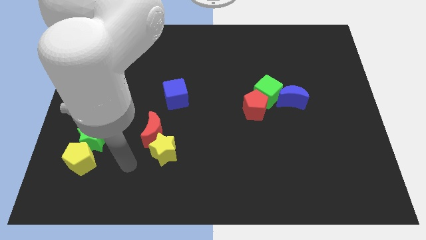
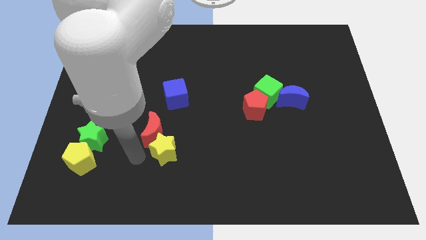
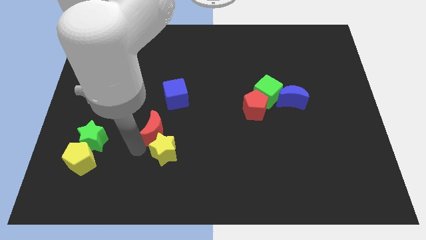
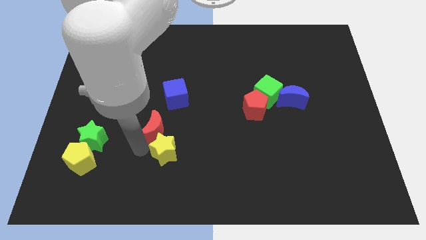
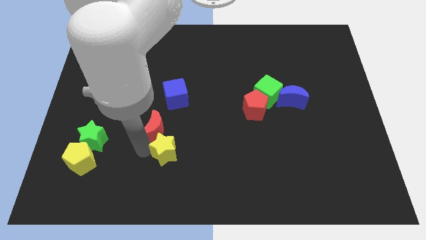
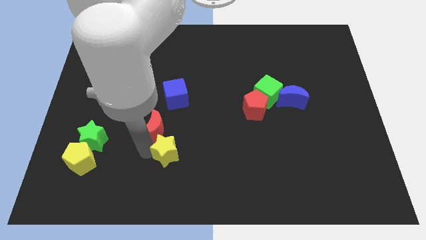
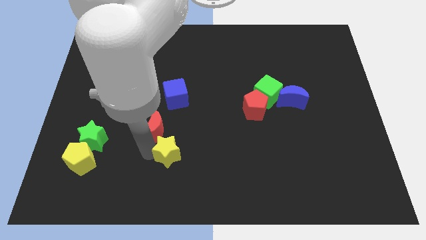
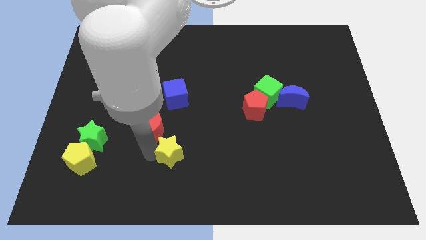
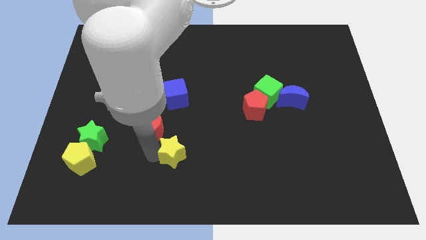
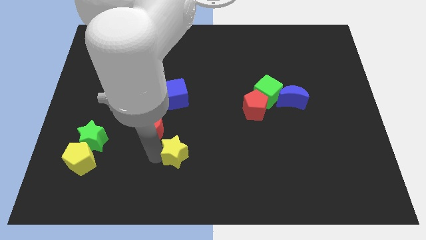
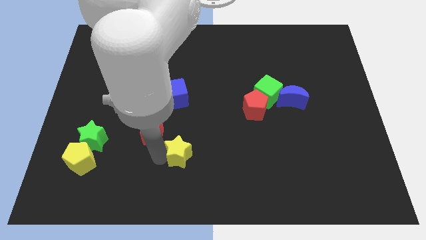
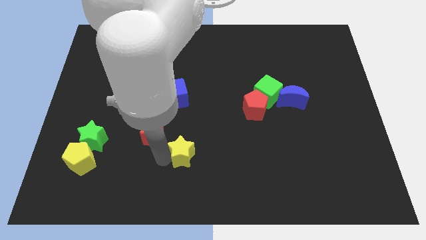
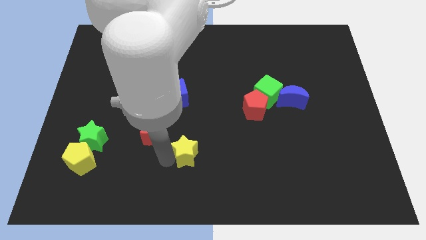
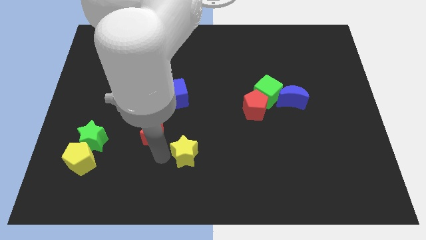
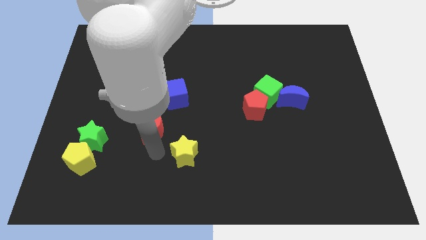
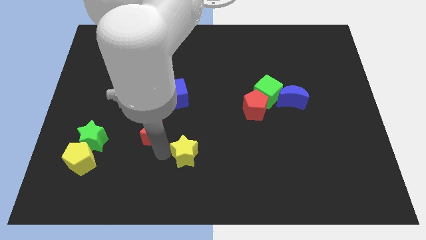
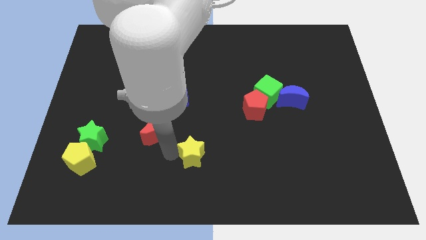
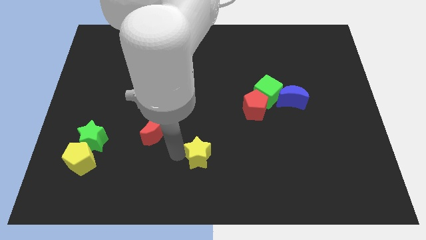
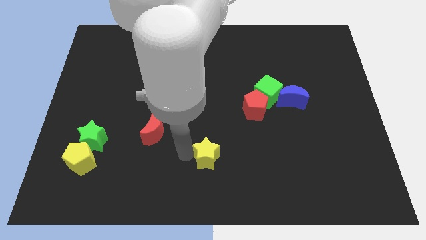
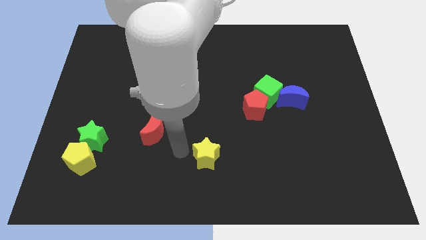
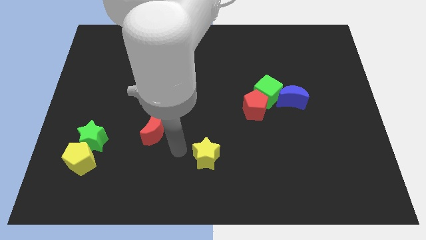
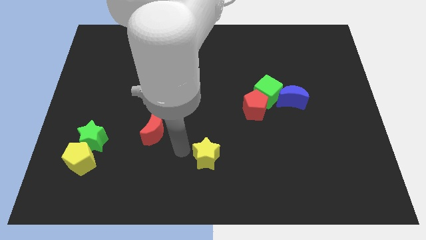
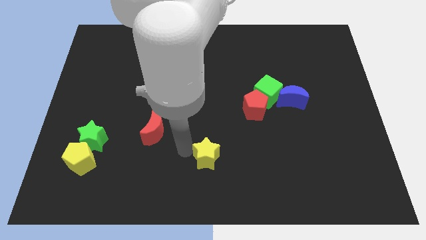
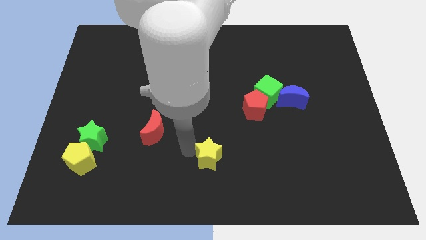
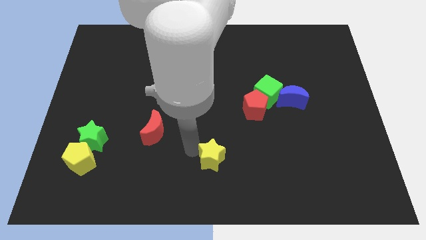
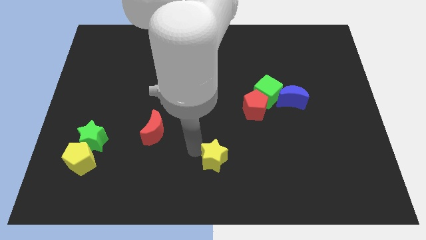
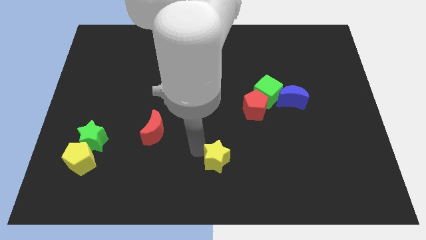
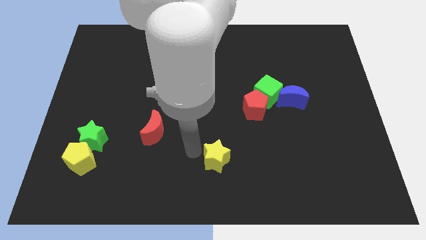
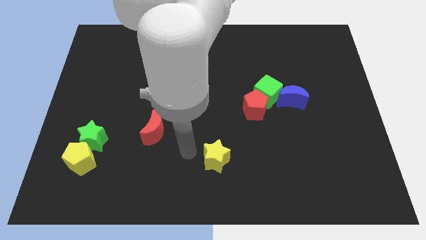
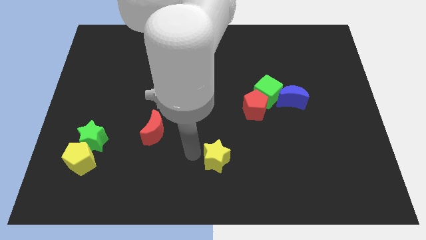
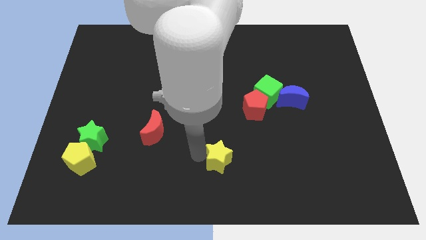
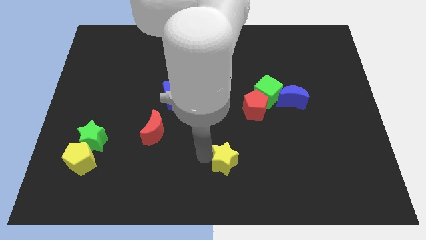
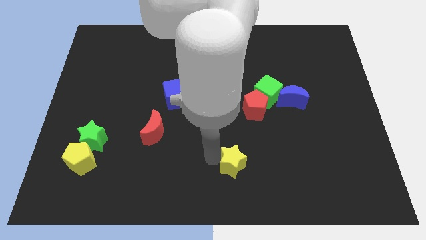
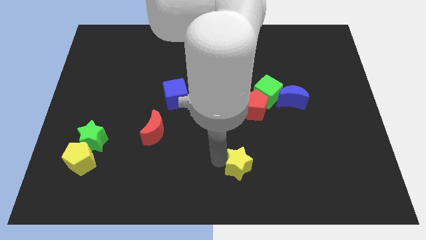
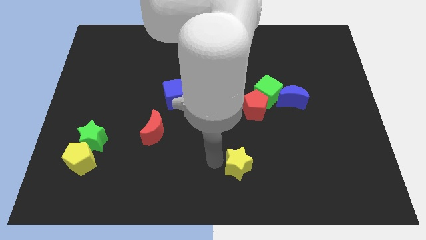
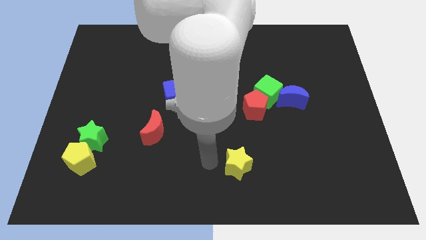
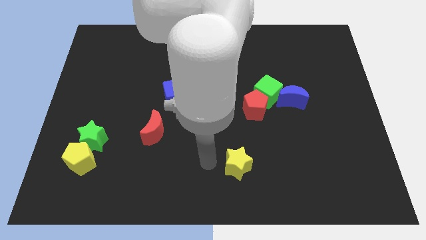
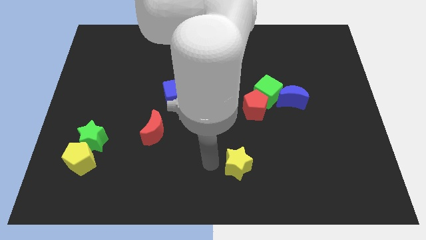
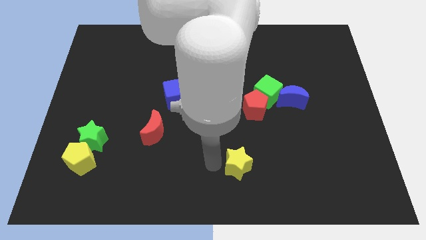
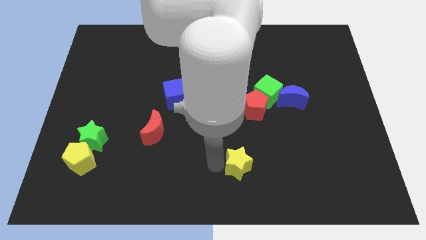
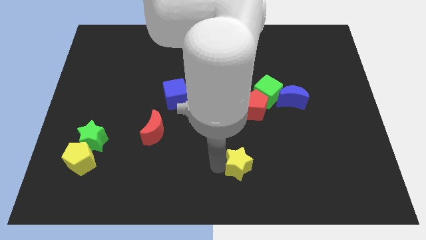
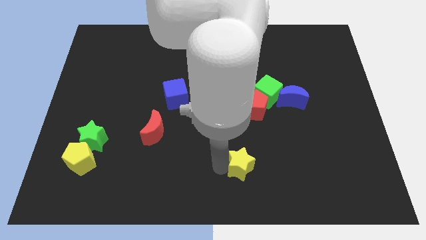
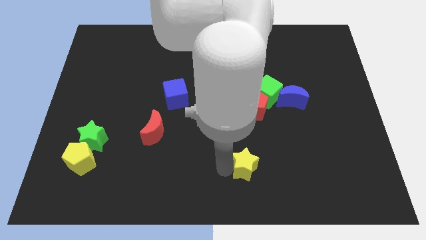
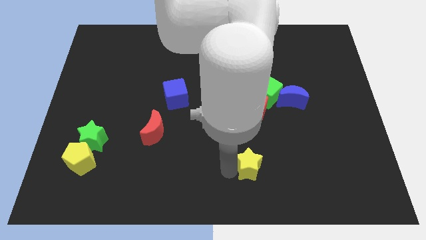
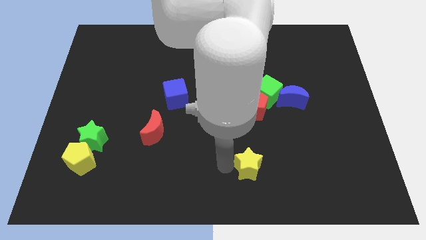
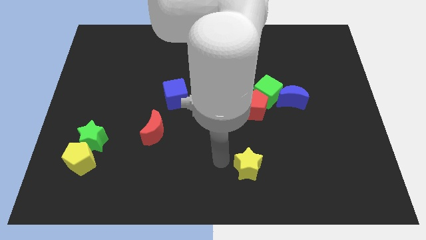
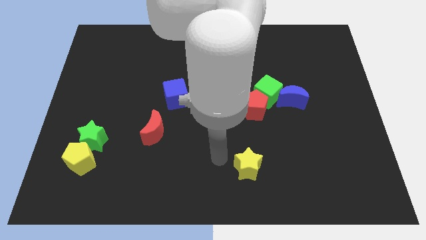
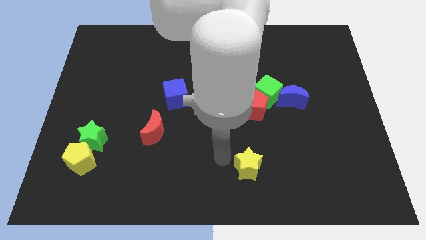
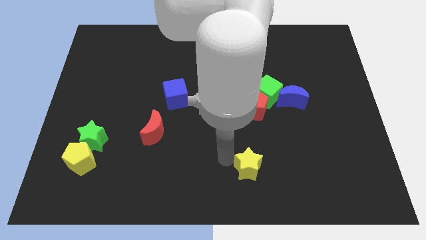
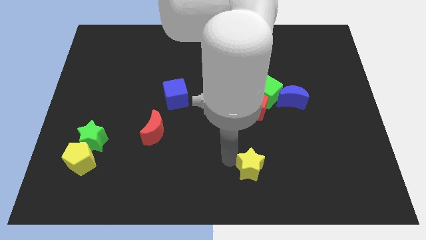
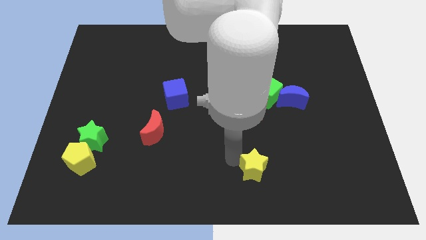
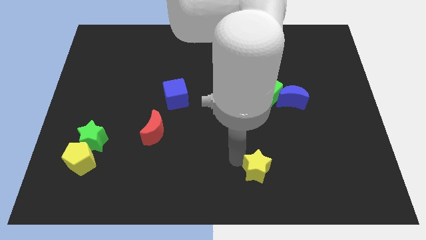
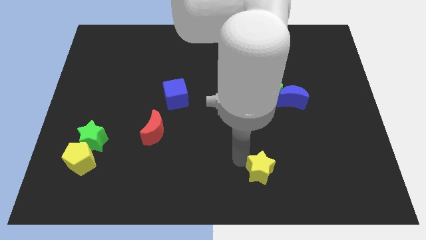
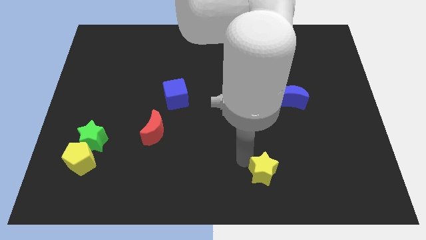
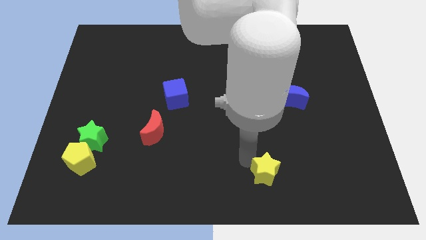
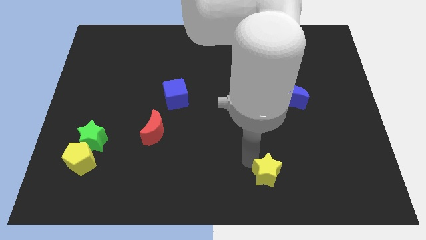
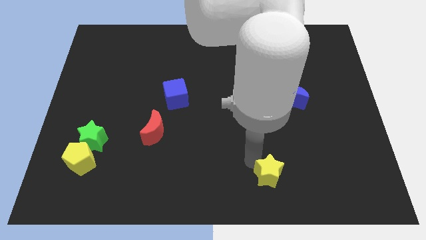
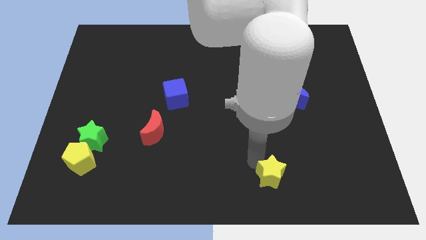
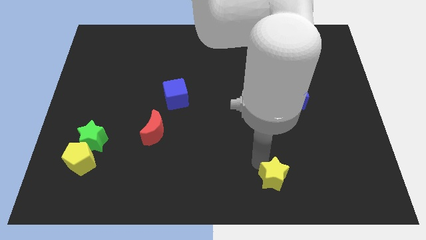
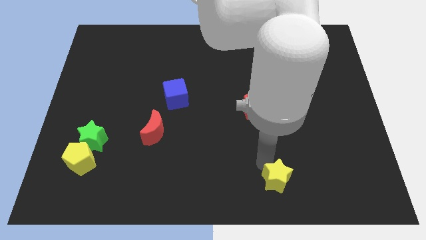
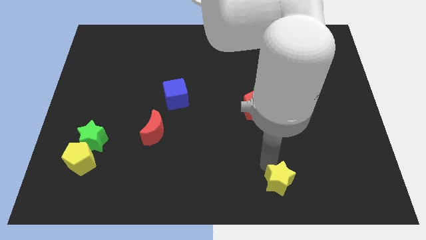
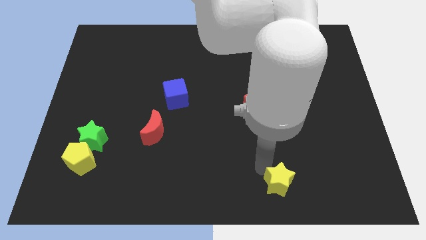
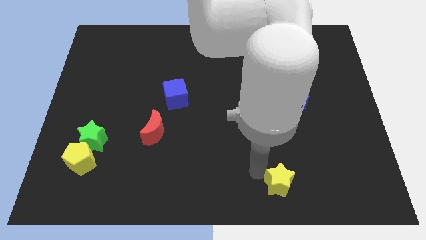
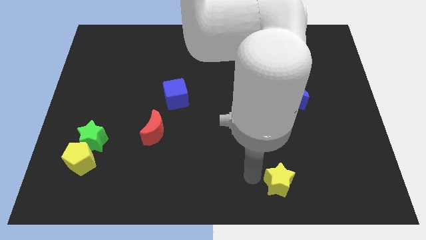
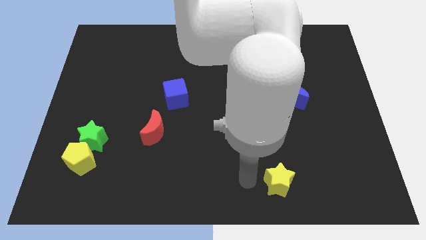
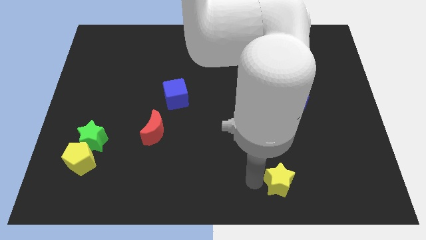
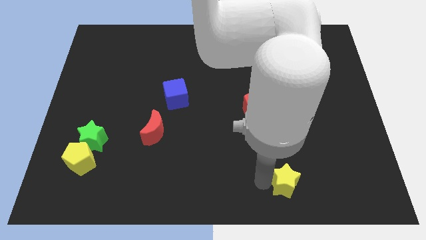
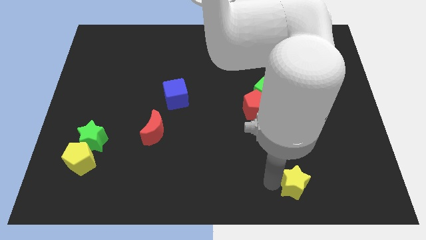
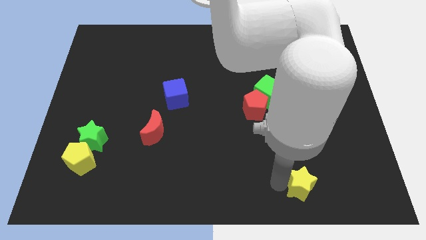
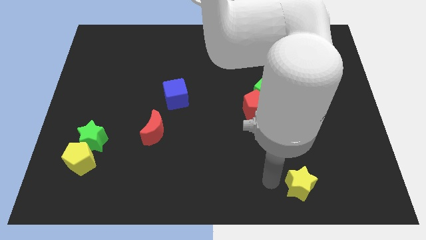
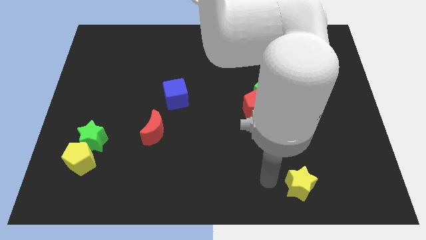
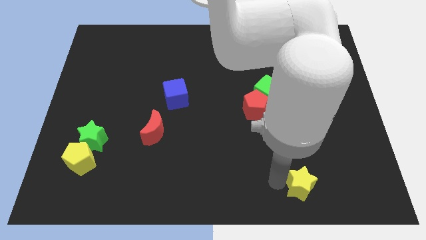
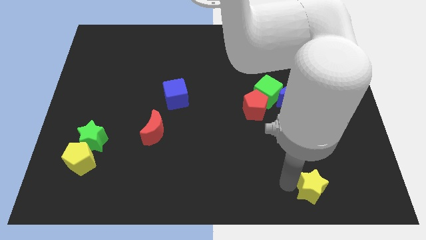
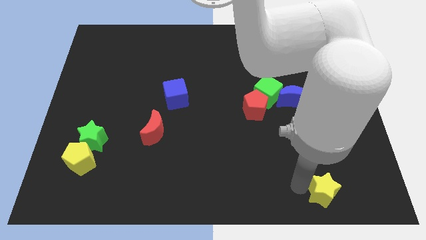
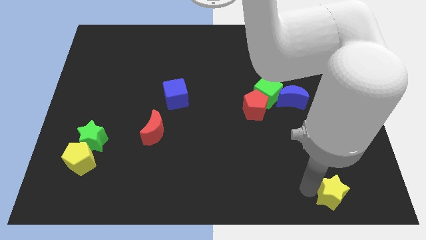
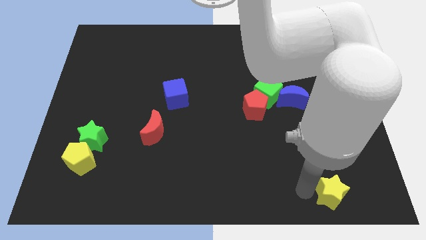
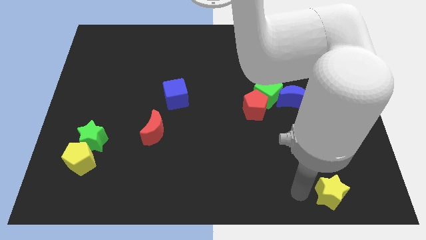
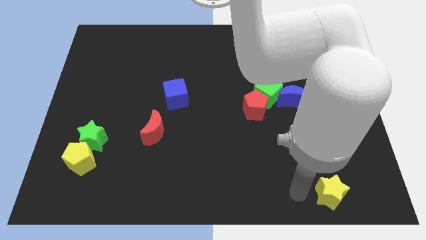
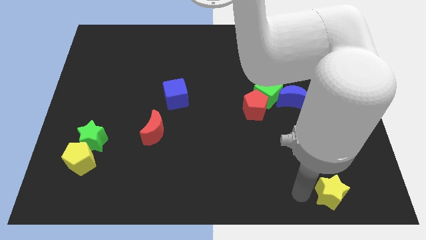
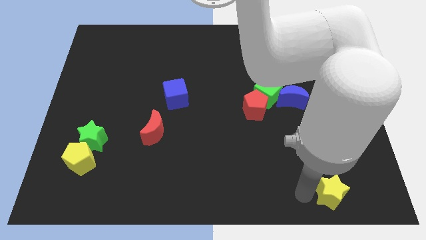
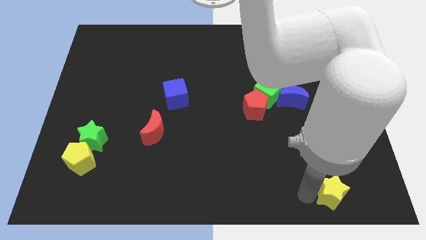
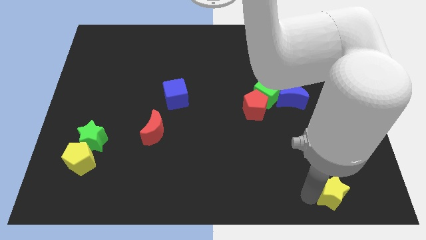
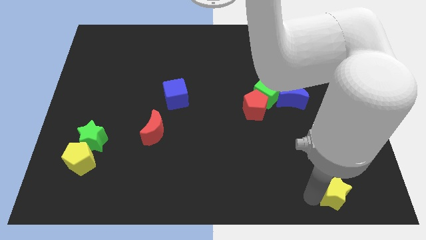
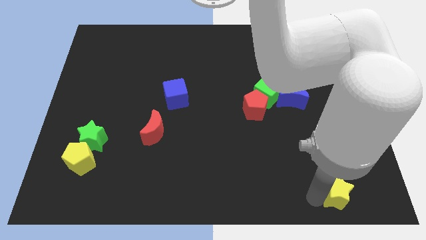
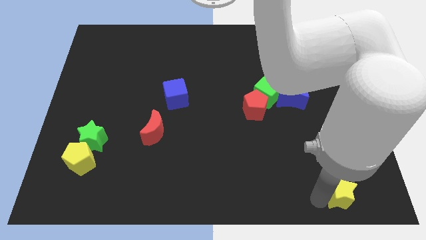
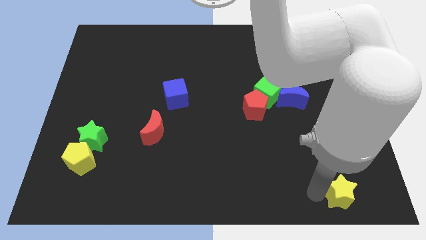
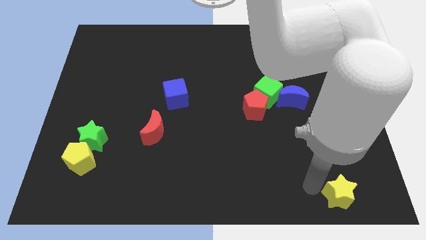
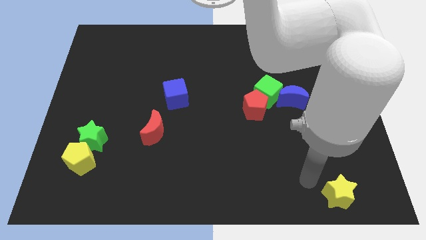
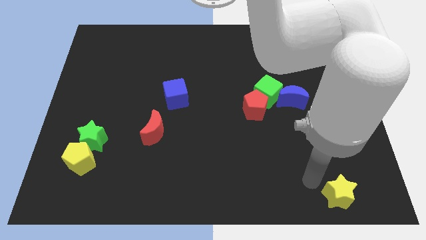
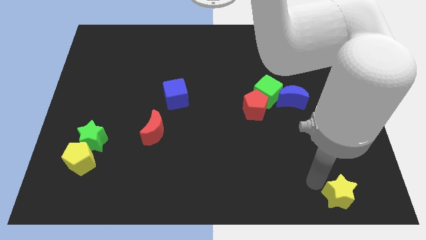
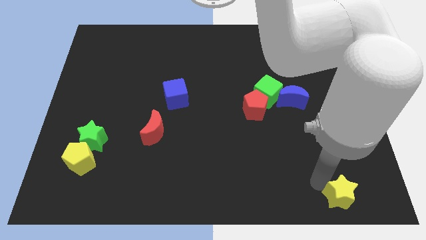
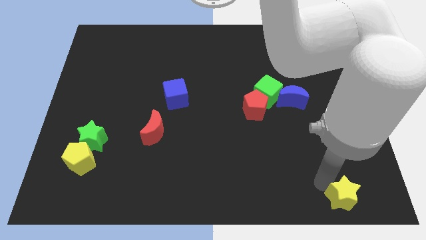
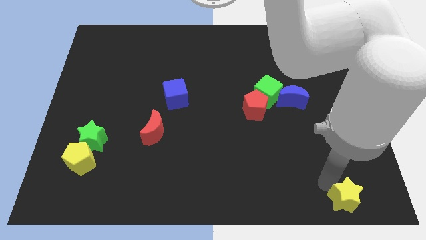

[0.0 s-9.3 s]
move the yellow star to the lower right corner
